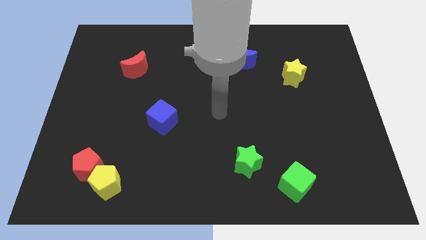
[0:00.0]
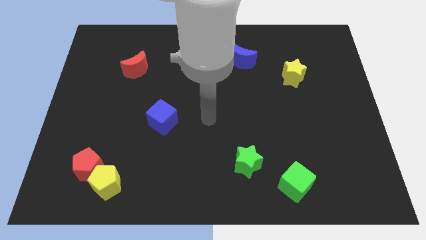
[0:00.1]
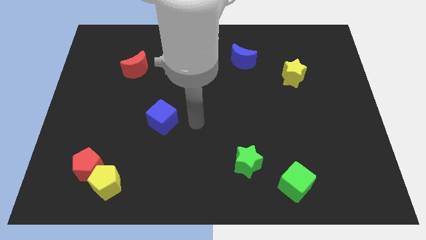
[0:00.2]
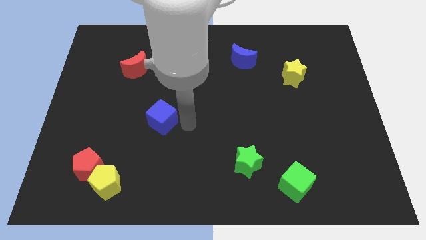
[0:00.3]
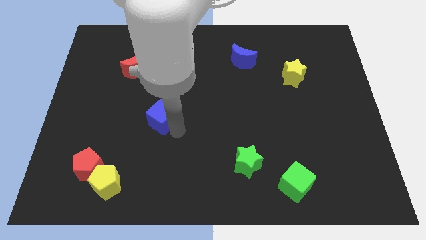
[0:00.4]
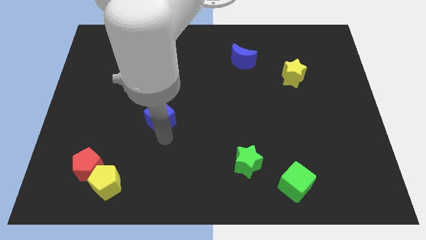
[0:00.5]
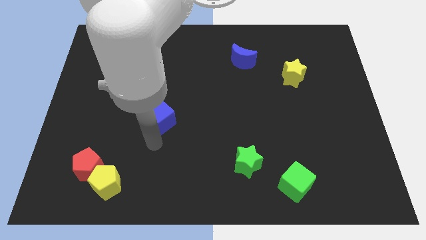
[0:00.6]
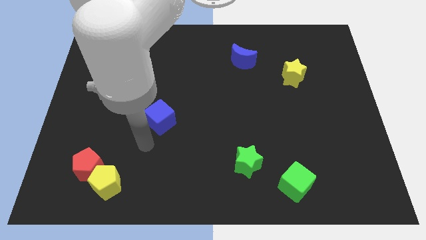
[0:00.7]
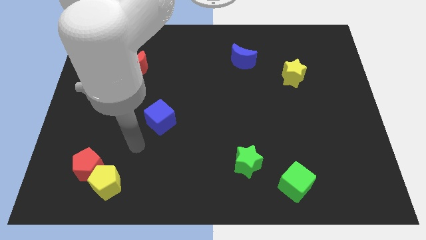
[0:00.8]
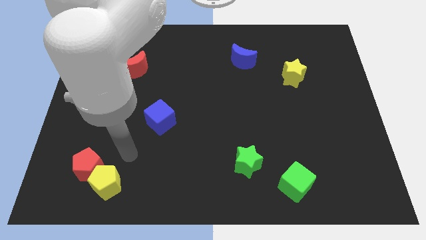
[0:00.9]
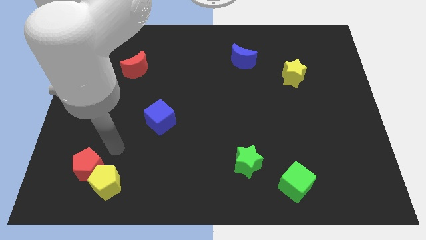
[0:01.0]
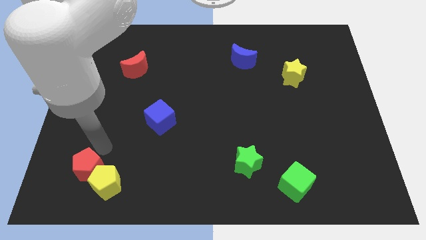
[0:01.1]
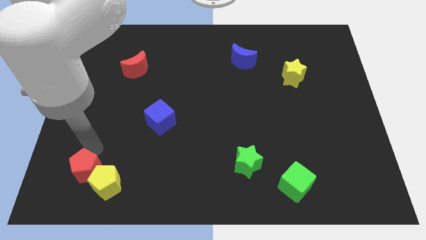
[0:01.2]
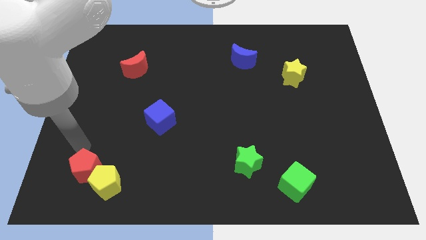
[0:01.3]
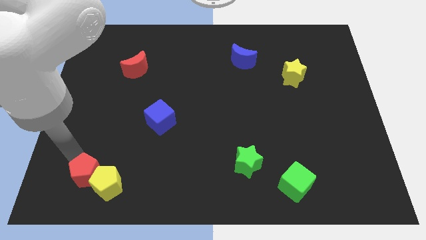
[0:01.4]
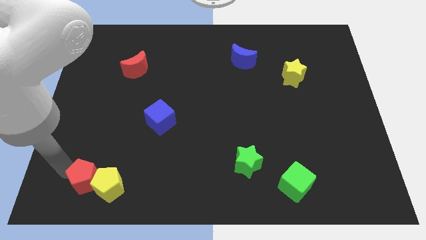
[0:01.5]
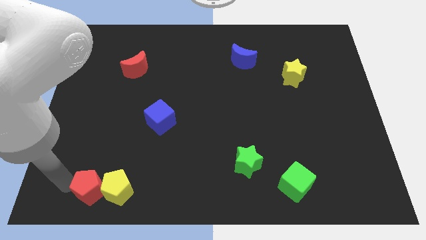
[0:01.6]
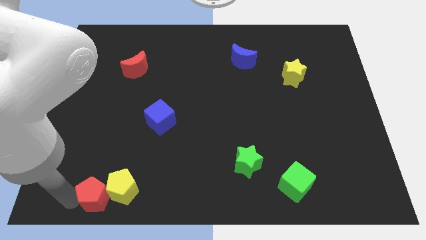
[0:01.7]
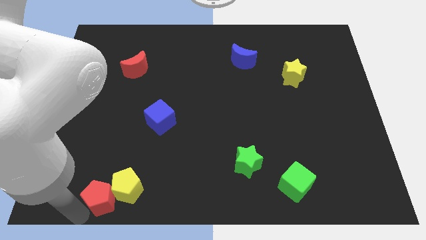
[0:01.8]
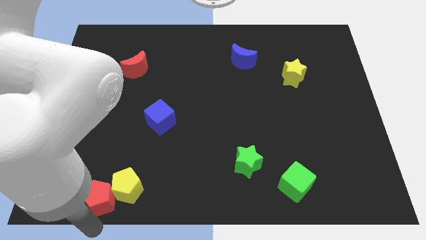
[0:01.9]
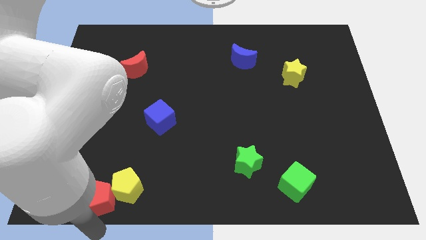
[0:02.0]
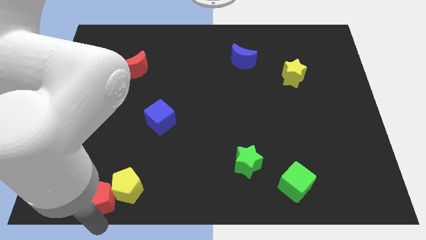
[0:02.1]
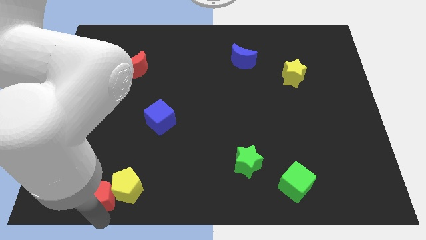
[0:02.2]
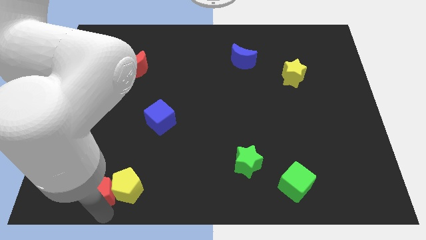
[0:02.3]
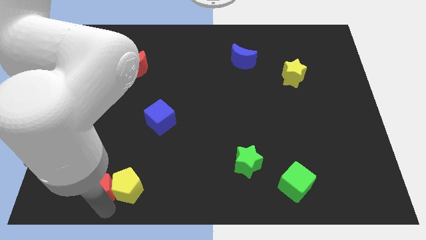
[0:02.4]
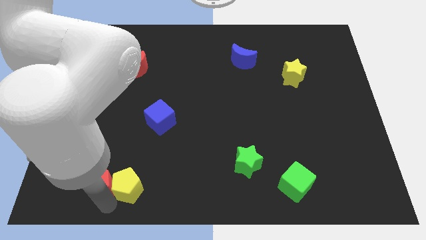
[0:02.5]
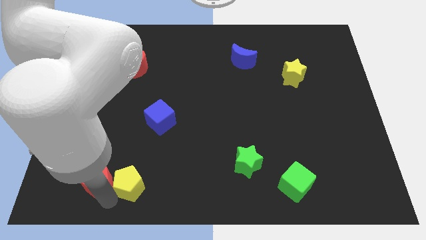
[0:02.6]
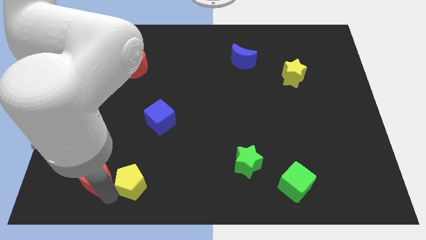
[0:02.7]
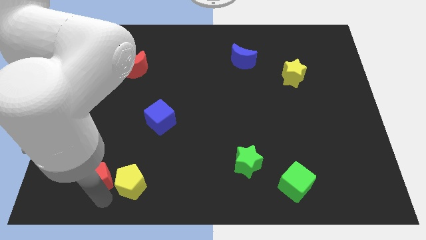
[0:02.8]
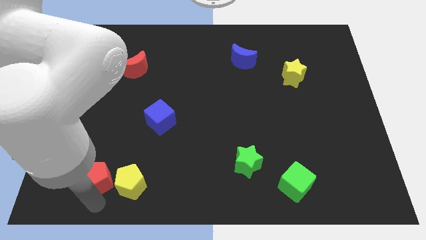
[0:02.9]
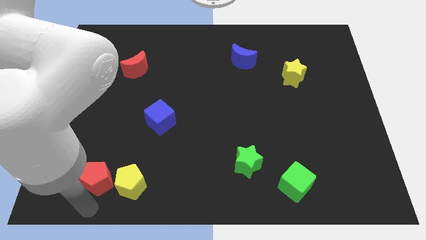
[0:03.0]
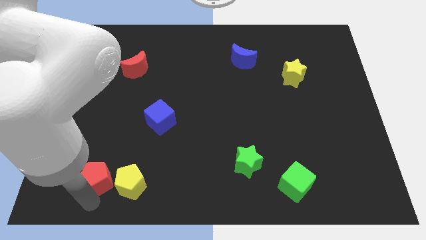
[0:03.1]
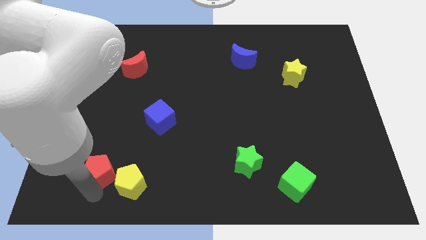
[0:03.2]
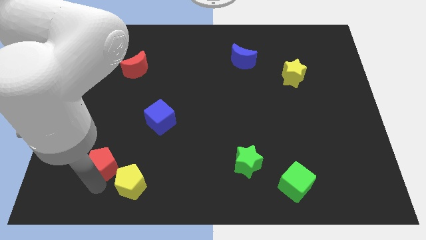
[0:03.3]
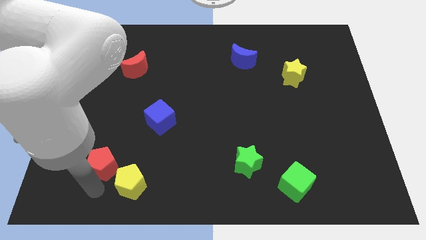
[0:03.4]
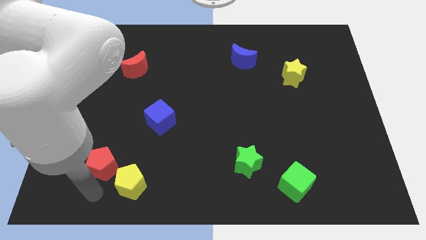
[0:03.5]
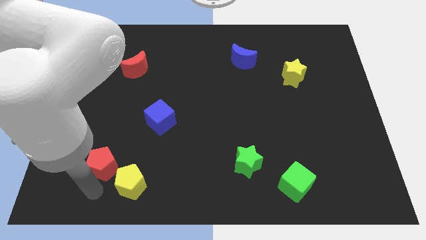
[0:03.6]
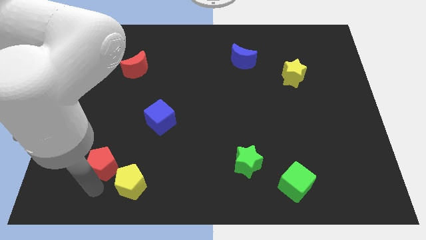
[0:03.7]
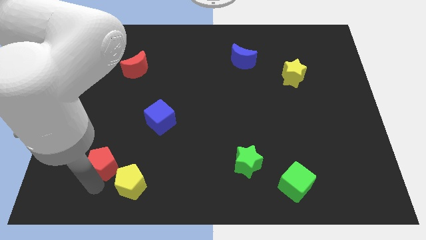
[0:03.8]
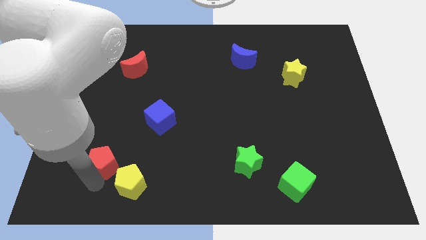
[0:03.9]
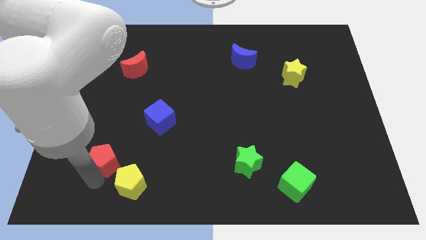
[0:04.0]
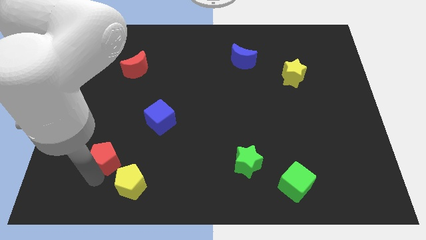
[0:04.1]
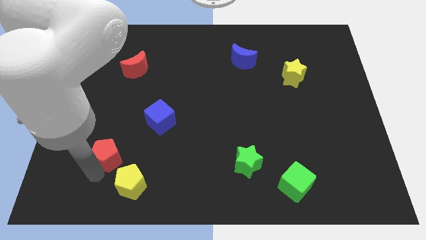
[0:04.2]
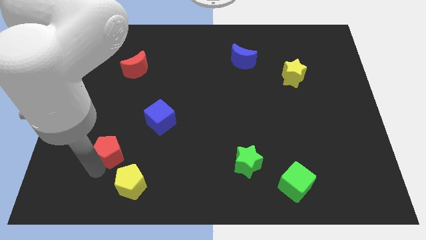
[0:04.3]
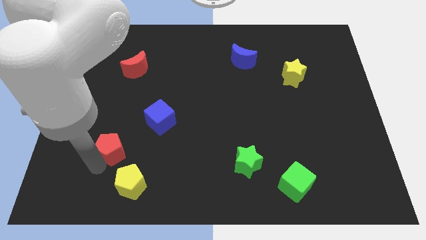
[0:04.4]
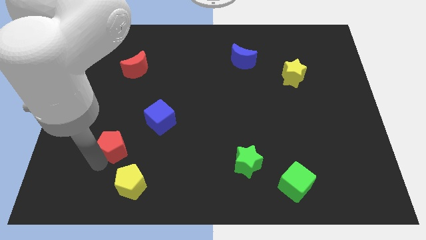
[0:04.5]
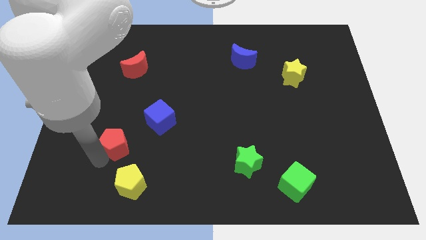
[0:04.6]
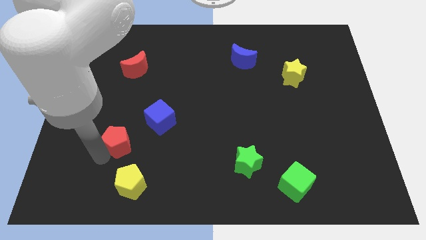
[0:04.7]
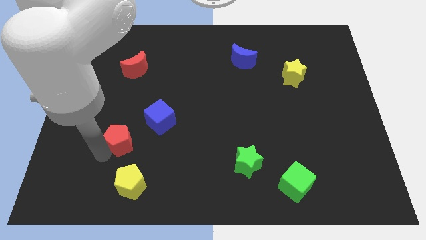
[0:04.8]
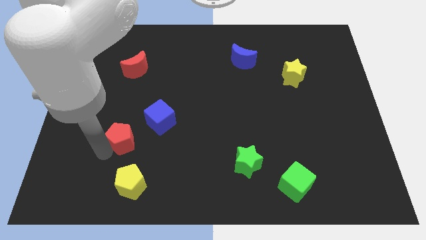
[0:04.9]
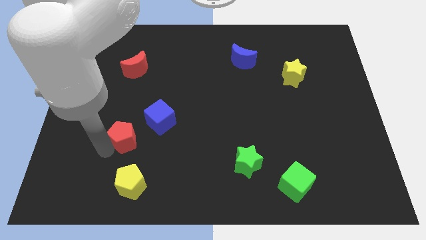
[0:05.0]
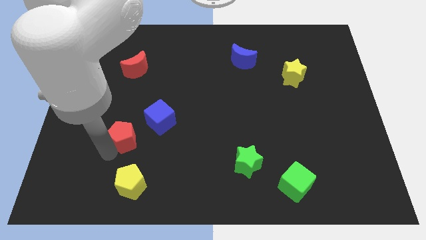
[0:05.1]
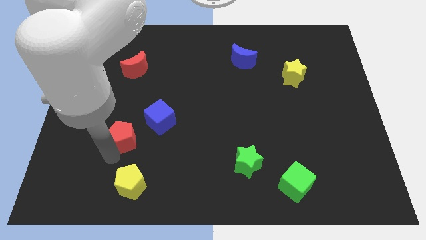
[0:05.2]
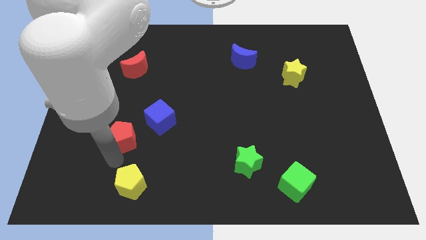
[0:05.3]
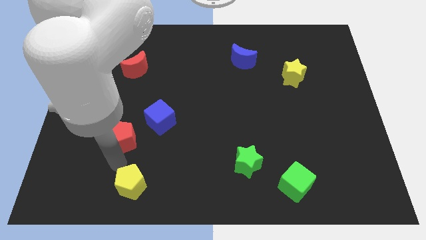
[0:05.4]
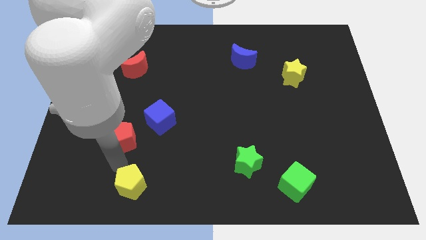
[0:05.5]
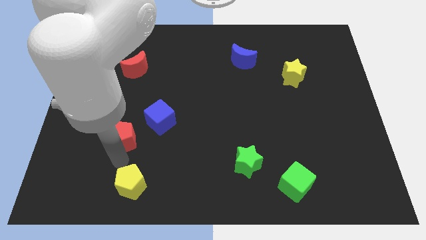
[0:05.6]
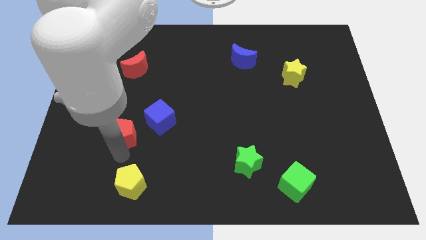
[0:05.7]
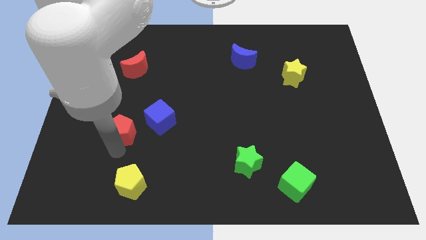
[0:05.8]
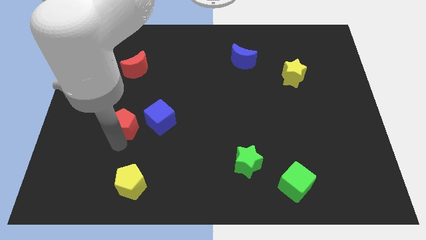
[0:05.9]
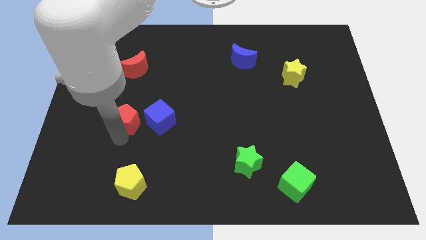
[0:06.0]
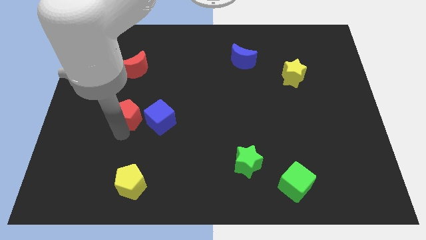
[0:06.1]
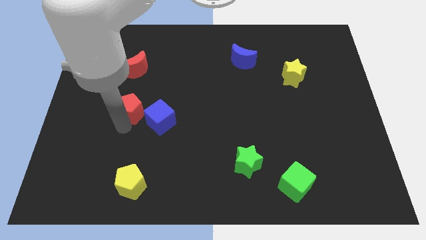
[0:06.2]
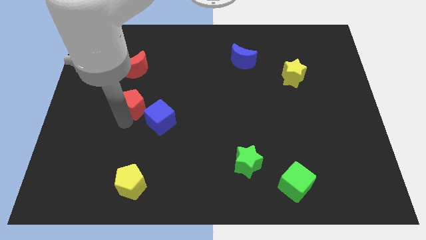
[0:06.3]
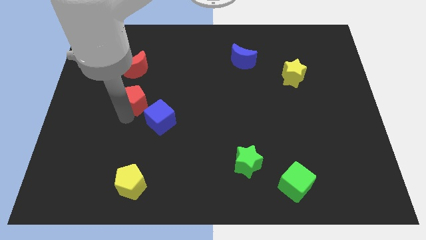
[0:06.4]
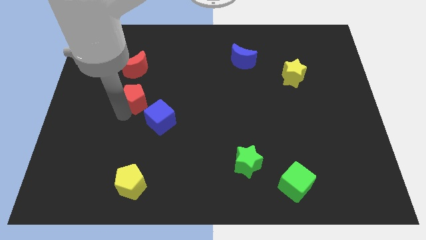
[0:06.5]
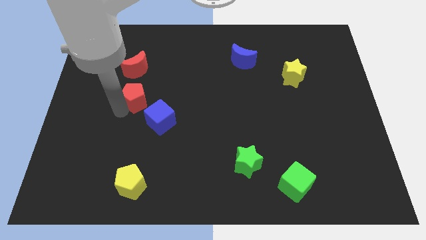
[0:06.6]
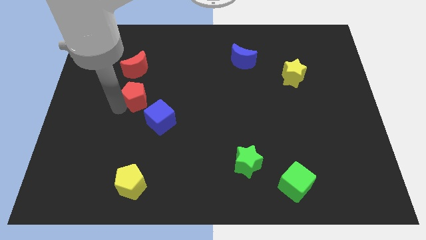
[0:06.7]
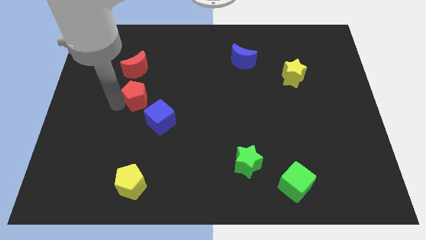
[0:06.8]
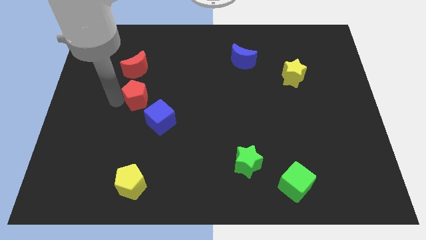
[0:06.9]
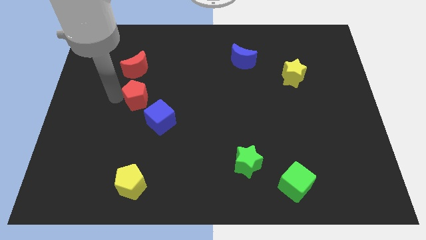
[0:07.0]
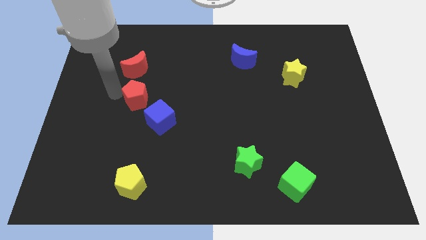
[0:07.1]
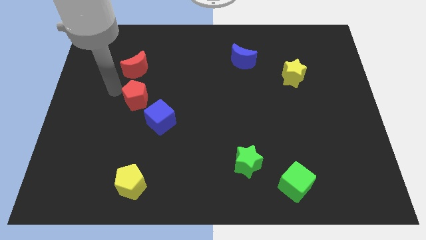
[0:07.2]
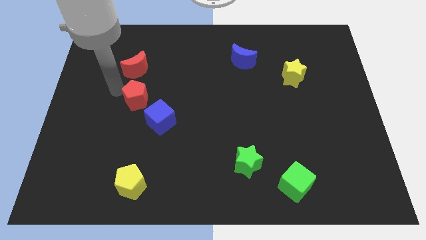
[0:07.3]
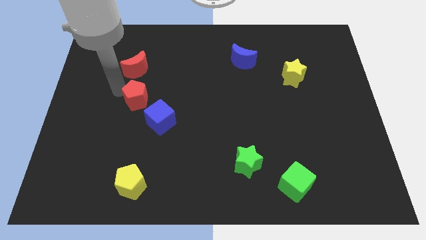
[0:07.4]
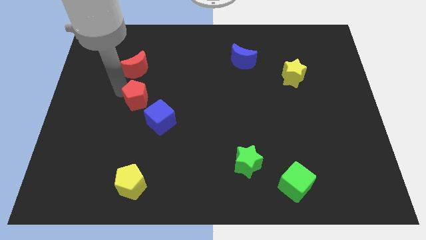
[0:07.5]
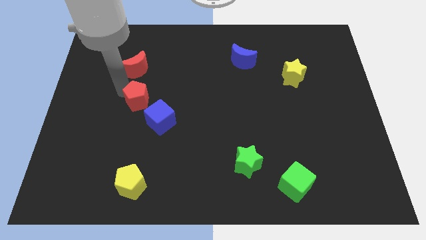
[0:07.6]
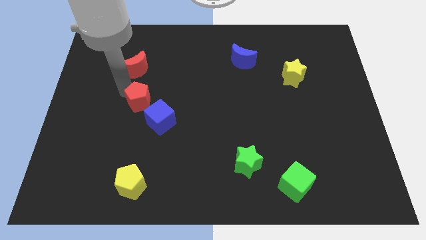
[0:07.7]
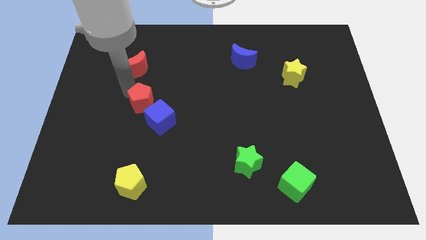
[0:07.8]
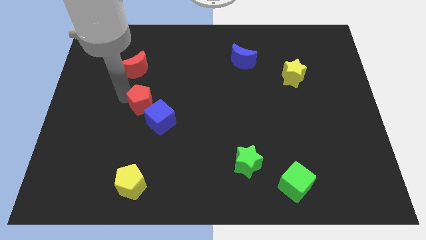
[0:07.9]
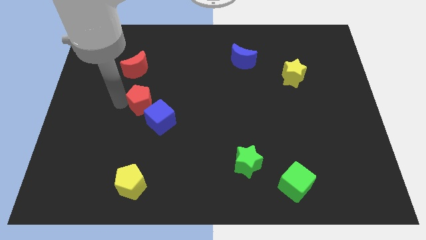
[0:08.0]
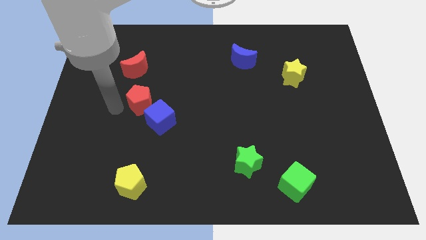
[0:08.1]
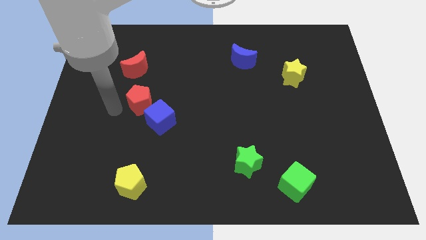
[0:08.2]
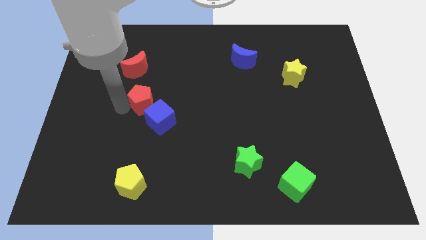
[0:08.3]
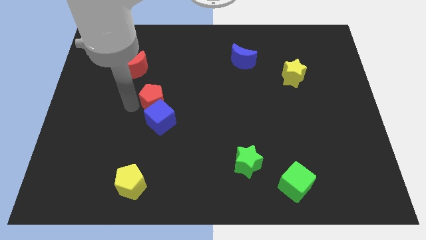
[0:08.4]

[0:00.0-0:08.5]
push the red pentagon upwards and right
